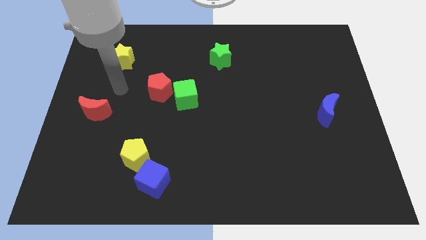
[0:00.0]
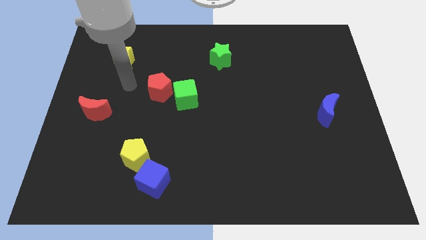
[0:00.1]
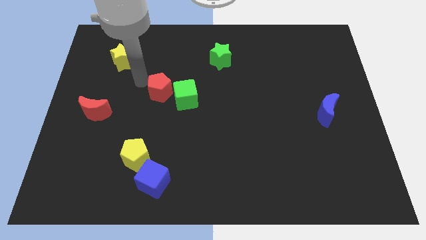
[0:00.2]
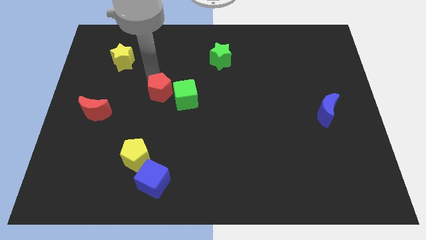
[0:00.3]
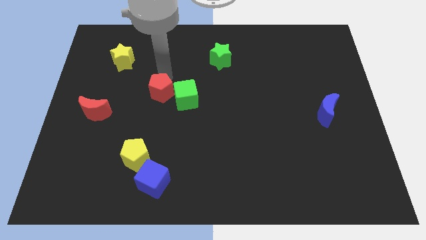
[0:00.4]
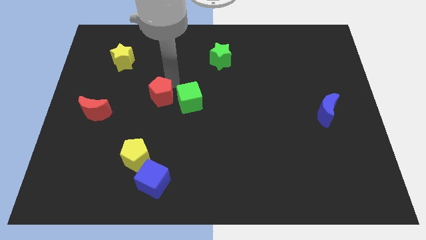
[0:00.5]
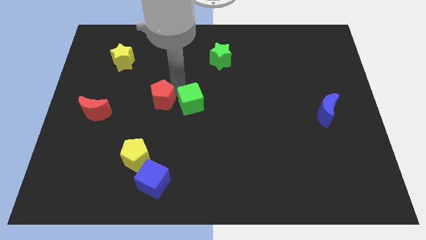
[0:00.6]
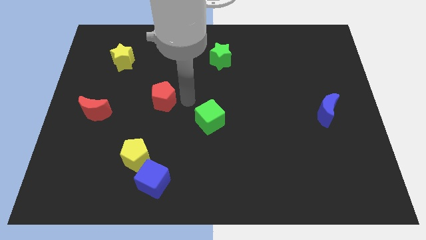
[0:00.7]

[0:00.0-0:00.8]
move the red pentagon away from the green cube

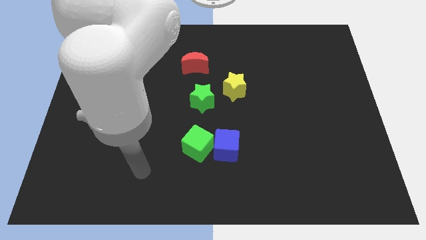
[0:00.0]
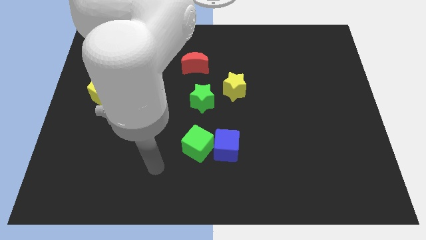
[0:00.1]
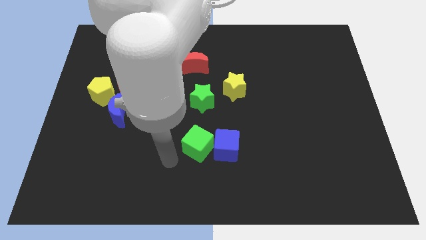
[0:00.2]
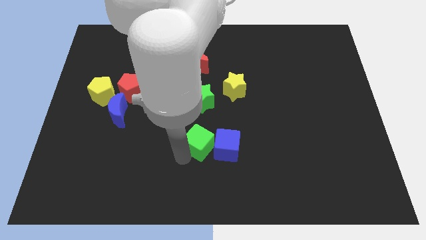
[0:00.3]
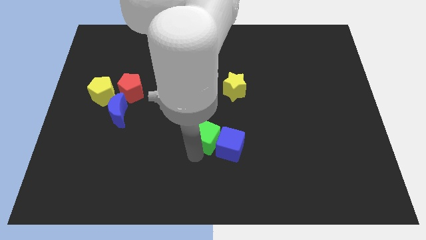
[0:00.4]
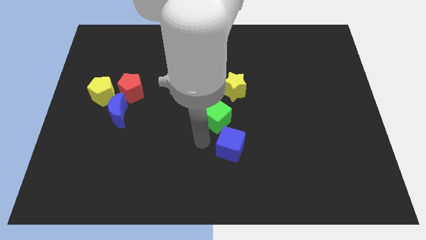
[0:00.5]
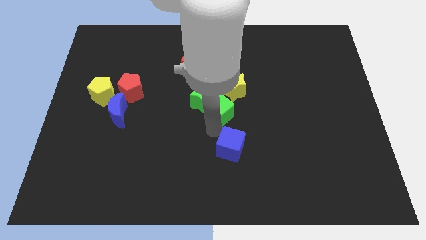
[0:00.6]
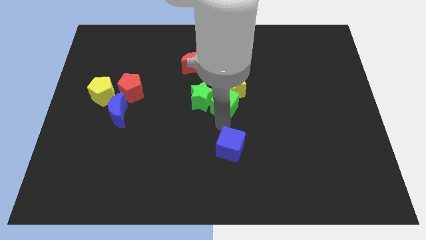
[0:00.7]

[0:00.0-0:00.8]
separate the blue cube from the green cube

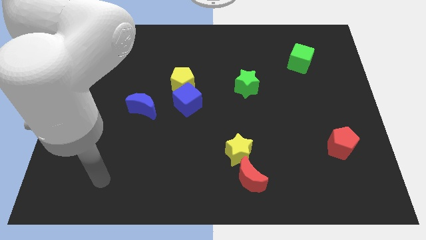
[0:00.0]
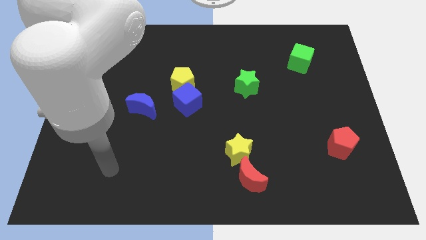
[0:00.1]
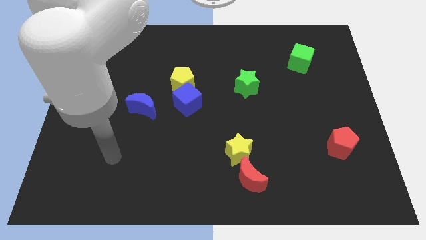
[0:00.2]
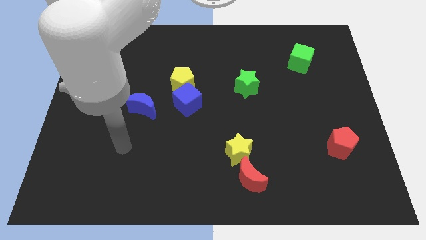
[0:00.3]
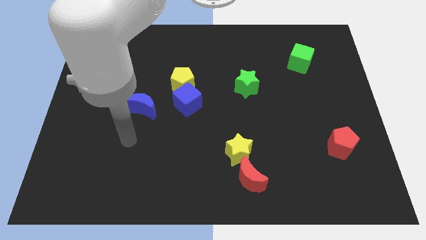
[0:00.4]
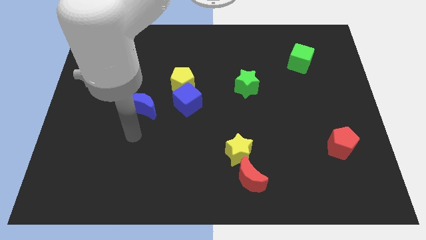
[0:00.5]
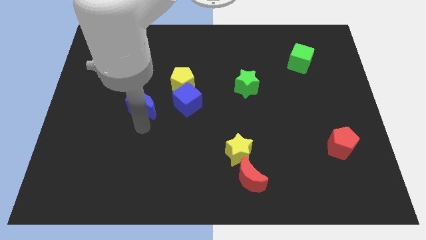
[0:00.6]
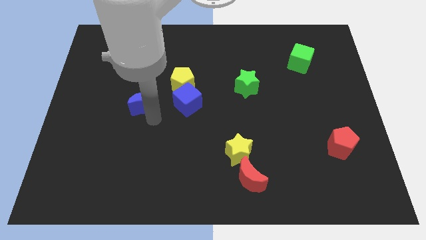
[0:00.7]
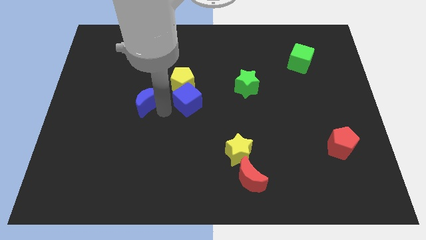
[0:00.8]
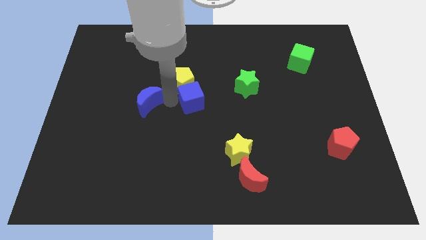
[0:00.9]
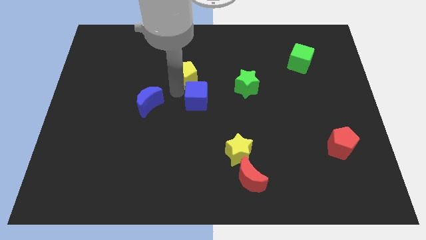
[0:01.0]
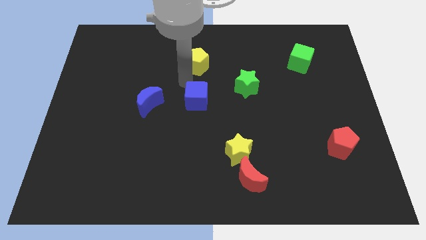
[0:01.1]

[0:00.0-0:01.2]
move the blue cube away from the yellow pentagon

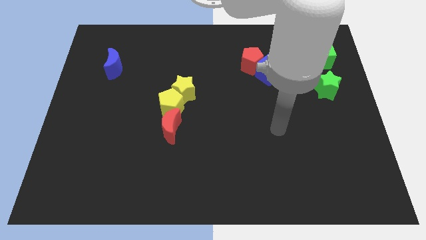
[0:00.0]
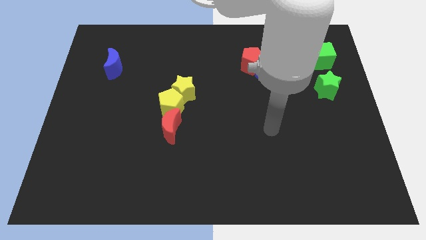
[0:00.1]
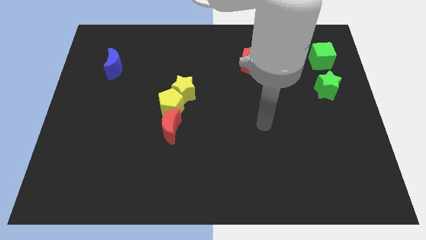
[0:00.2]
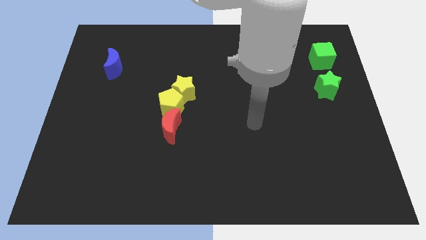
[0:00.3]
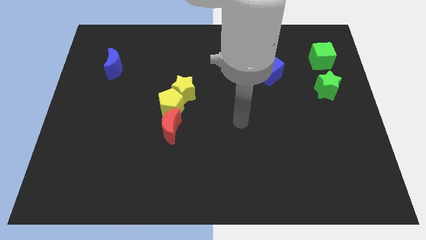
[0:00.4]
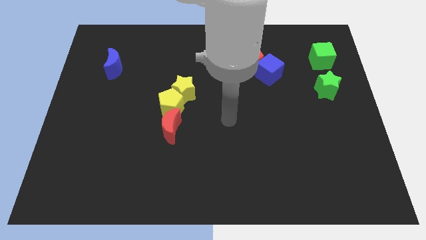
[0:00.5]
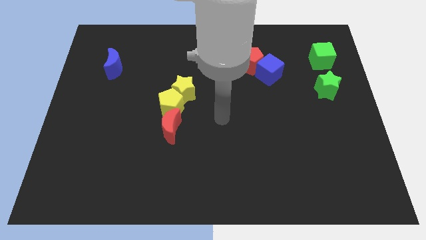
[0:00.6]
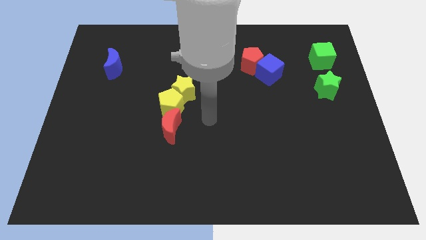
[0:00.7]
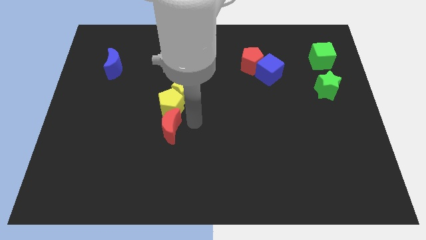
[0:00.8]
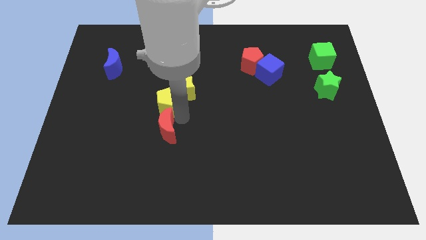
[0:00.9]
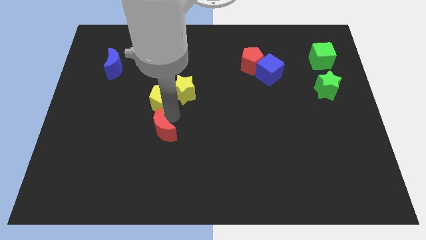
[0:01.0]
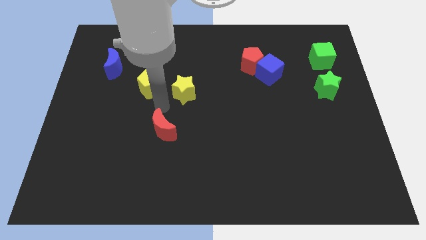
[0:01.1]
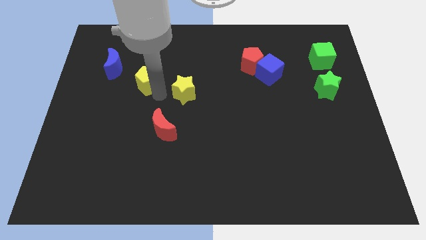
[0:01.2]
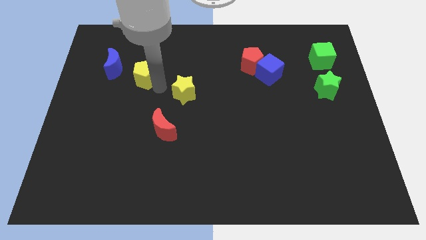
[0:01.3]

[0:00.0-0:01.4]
move the yellow star away from the yellow pentagon

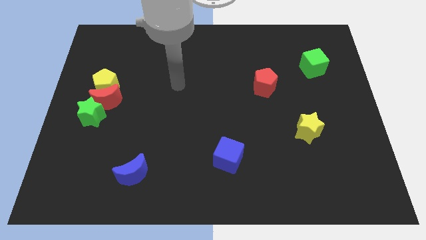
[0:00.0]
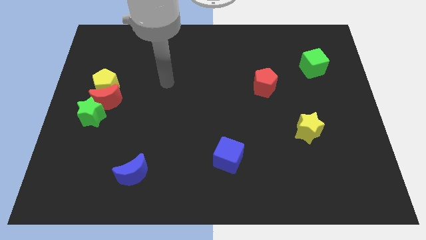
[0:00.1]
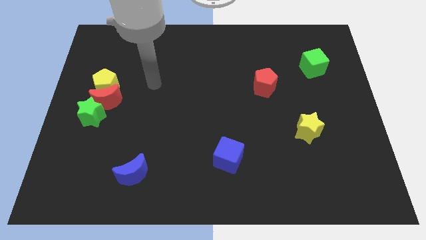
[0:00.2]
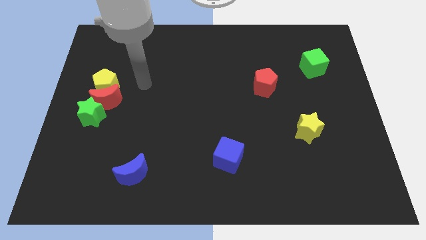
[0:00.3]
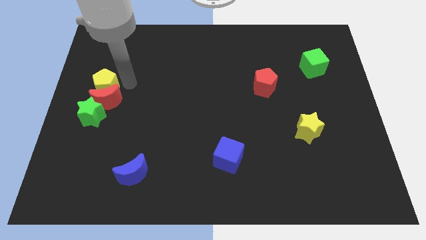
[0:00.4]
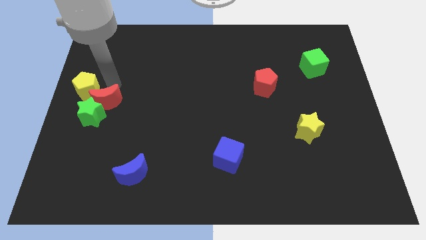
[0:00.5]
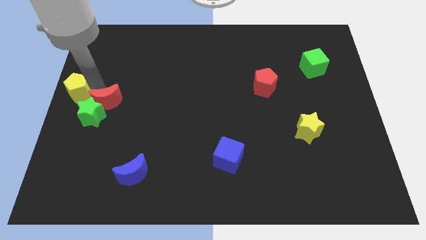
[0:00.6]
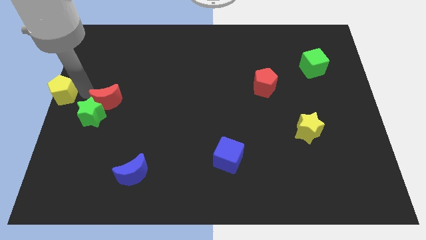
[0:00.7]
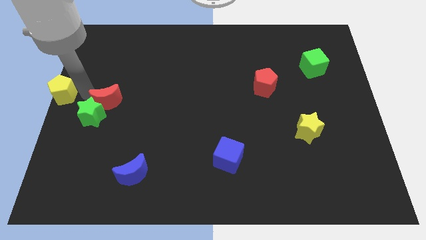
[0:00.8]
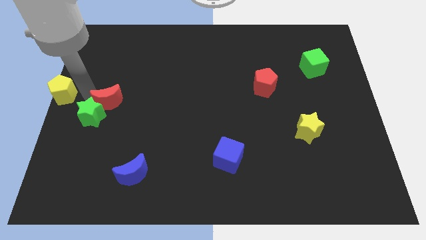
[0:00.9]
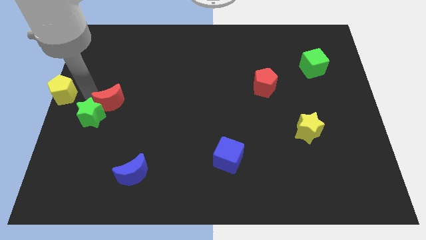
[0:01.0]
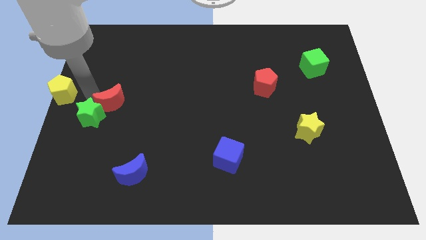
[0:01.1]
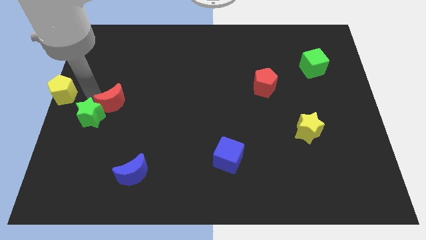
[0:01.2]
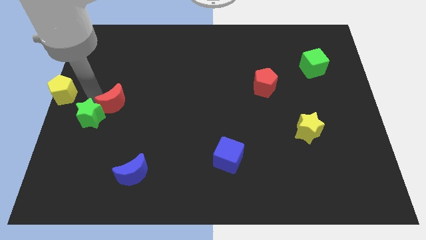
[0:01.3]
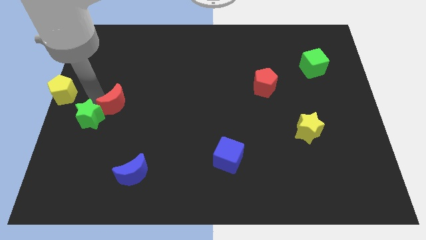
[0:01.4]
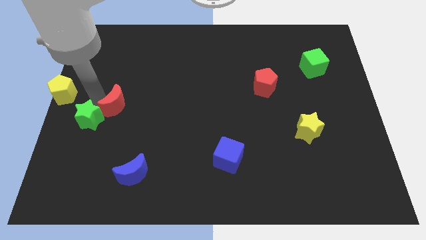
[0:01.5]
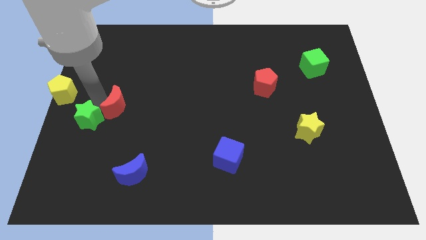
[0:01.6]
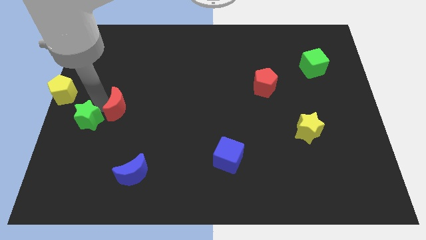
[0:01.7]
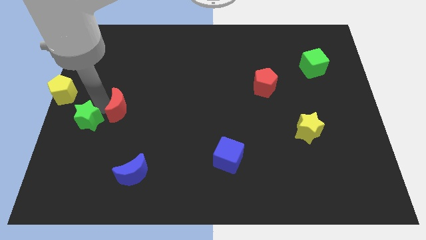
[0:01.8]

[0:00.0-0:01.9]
separate the red moon from the yellow pentagon and green star

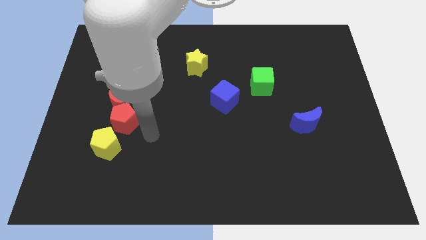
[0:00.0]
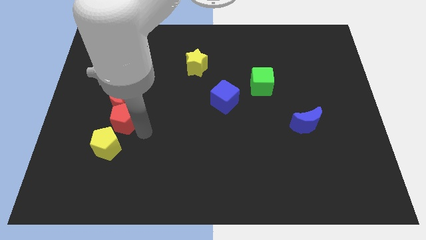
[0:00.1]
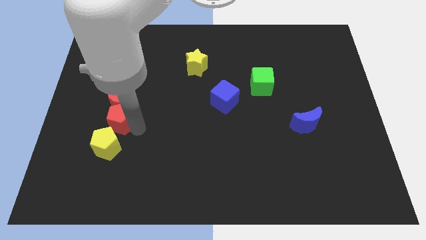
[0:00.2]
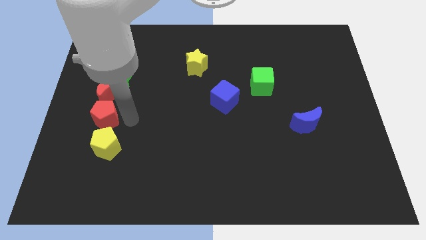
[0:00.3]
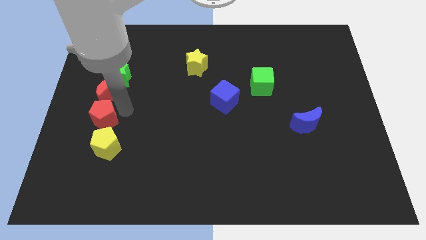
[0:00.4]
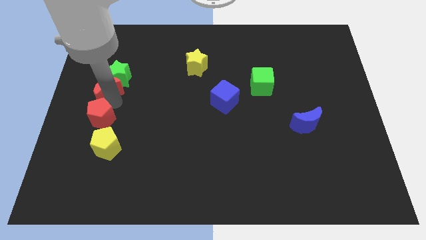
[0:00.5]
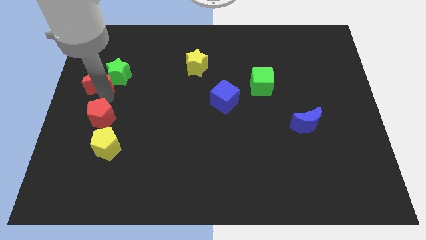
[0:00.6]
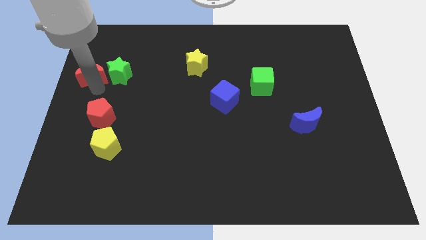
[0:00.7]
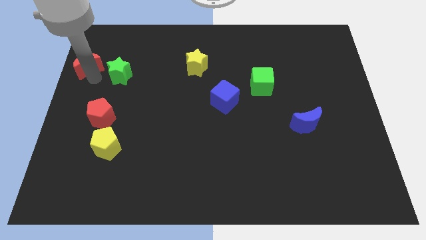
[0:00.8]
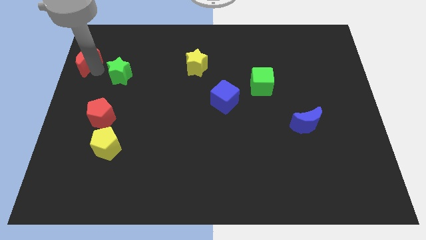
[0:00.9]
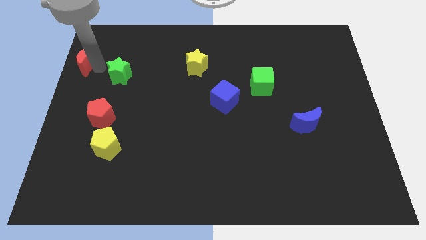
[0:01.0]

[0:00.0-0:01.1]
move the green star away from the red moon

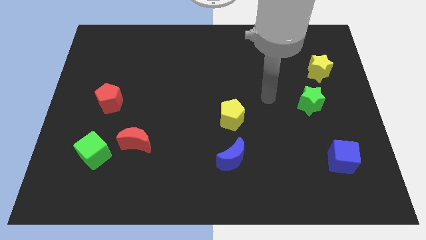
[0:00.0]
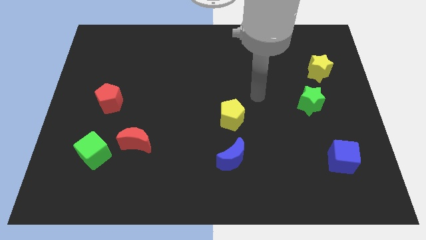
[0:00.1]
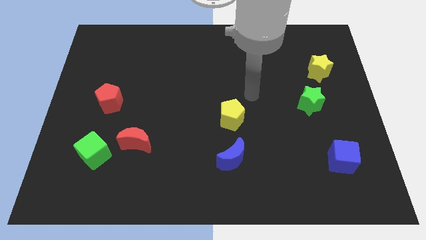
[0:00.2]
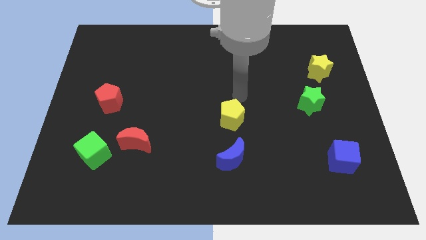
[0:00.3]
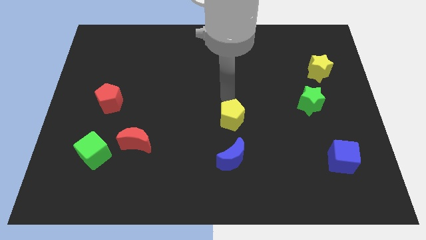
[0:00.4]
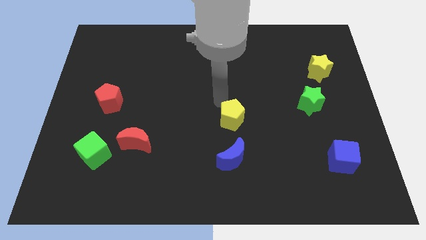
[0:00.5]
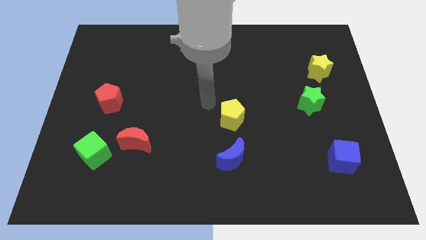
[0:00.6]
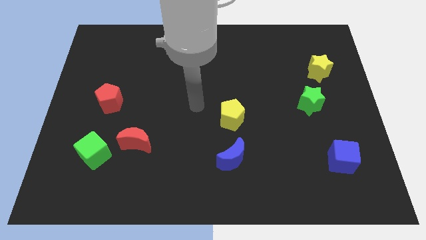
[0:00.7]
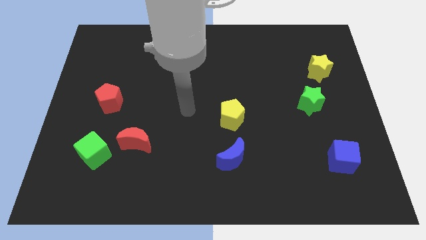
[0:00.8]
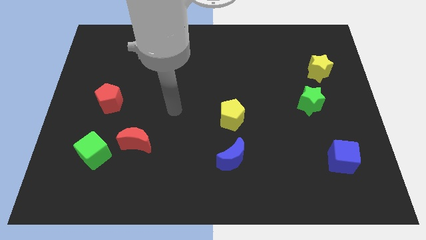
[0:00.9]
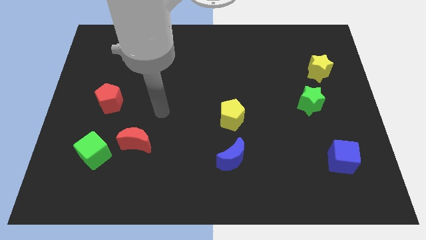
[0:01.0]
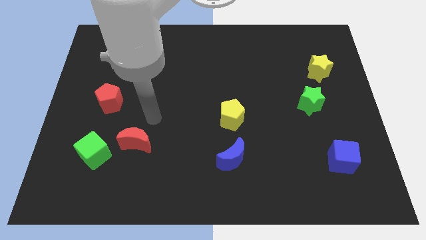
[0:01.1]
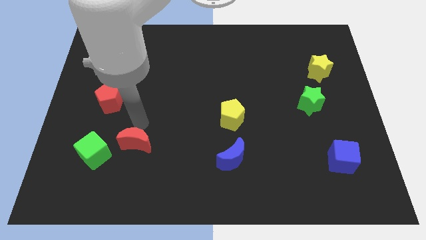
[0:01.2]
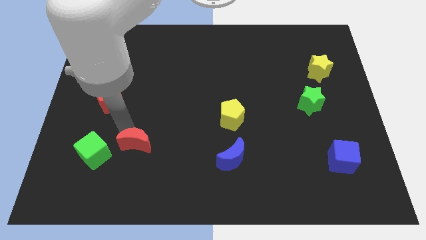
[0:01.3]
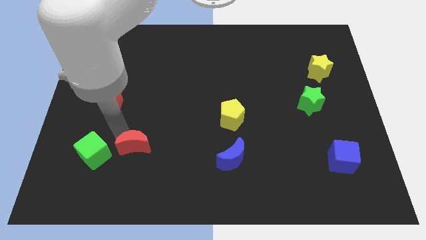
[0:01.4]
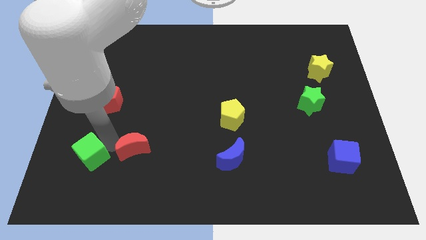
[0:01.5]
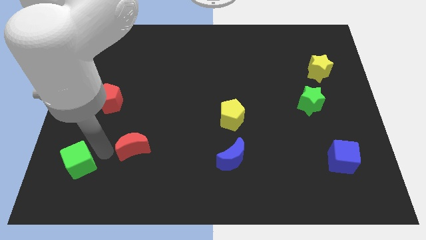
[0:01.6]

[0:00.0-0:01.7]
move the red moon away from the green cube

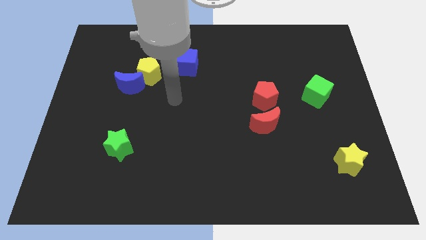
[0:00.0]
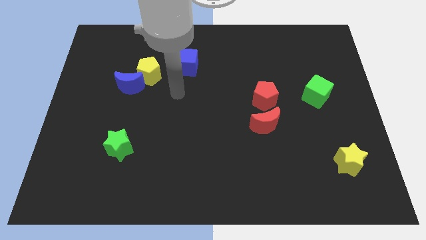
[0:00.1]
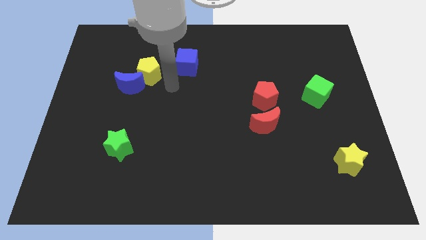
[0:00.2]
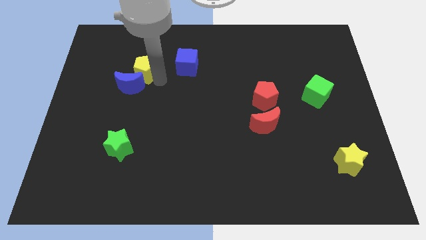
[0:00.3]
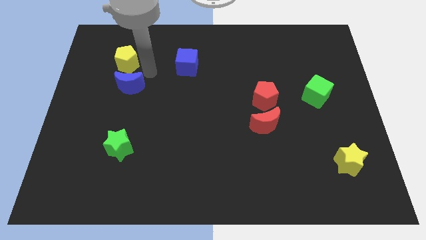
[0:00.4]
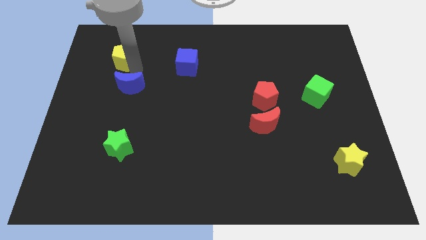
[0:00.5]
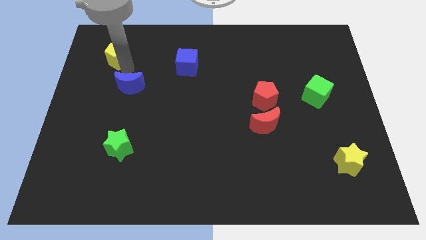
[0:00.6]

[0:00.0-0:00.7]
pull the blue moon apart from the yellow pentagon
